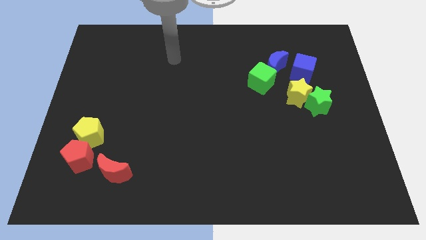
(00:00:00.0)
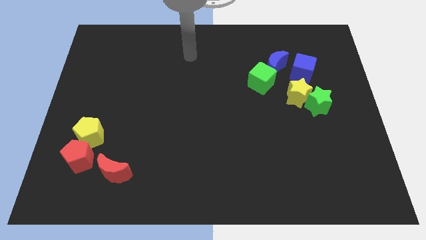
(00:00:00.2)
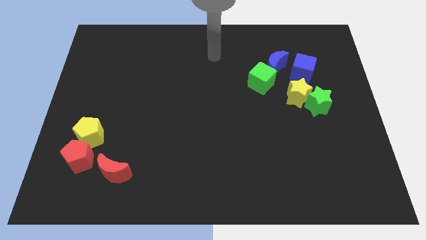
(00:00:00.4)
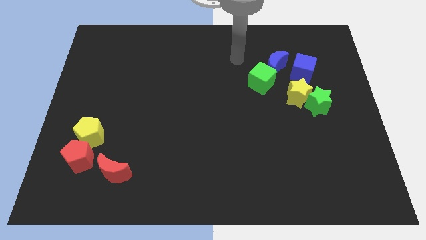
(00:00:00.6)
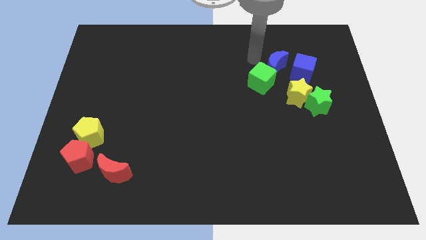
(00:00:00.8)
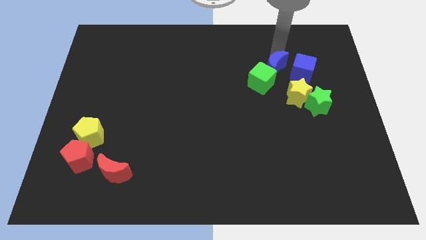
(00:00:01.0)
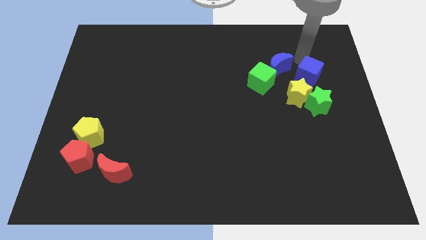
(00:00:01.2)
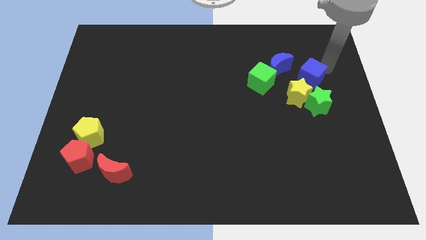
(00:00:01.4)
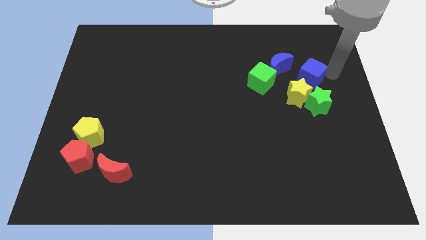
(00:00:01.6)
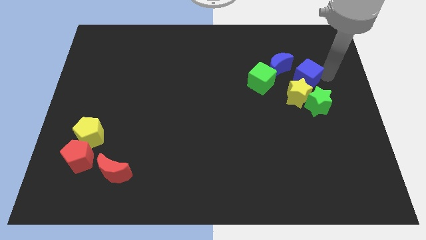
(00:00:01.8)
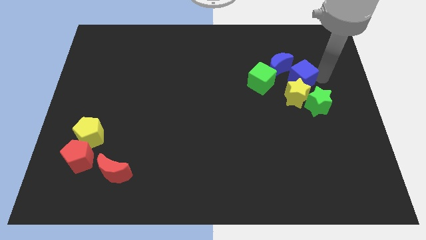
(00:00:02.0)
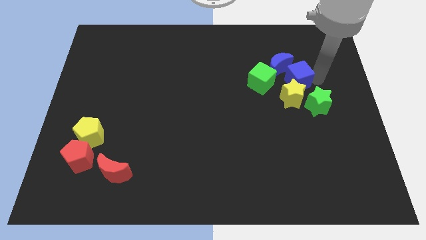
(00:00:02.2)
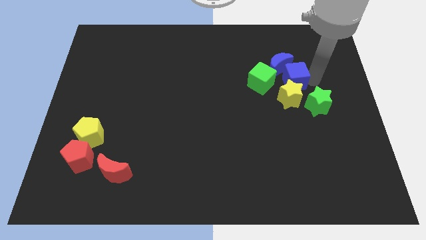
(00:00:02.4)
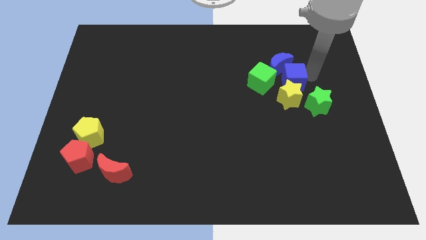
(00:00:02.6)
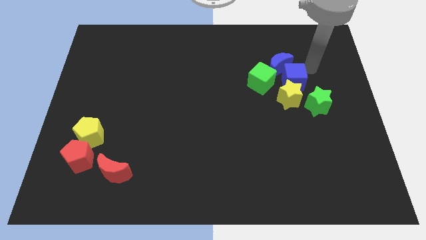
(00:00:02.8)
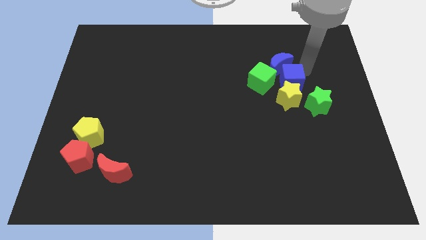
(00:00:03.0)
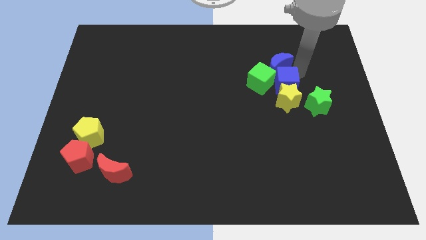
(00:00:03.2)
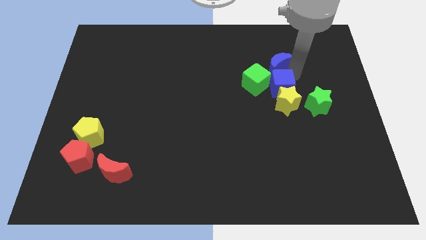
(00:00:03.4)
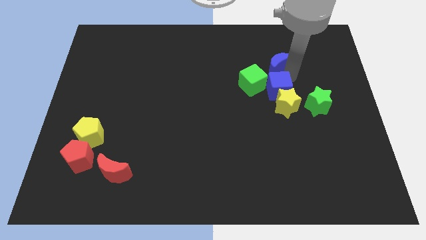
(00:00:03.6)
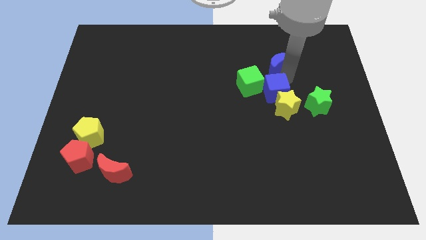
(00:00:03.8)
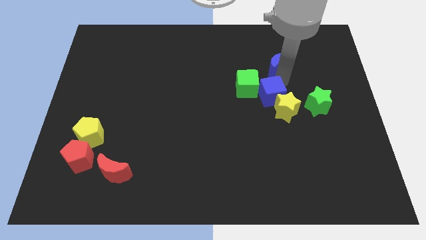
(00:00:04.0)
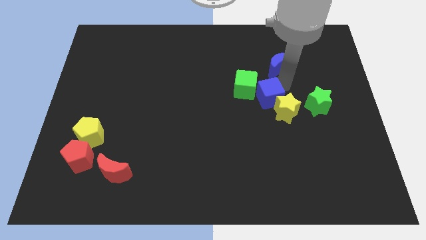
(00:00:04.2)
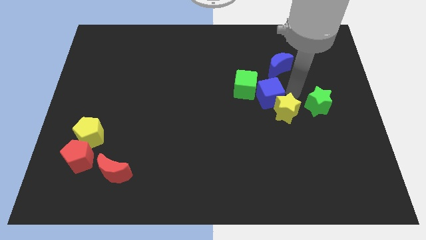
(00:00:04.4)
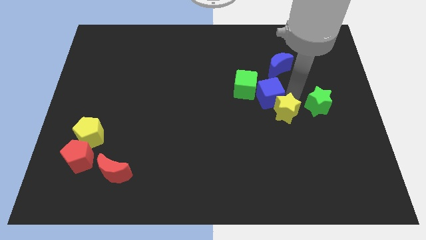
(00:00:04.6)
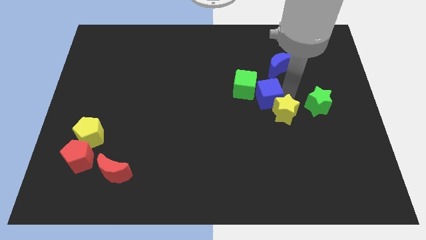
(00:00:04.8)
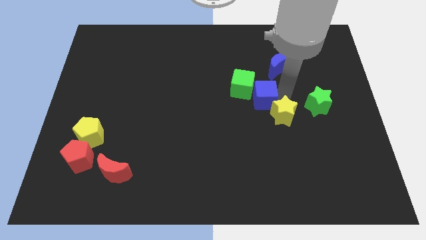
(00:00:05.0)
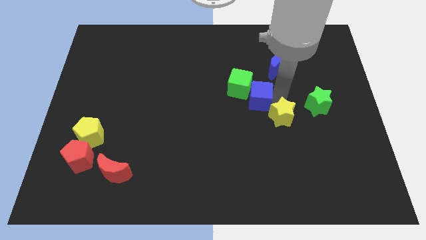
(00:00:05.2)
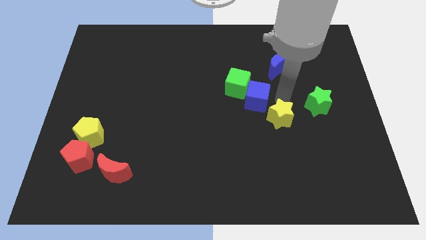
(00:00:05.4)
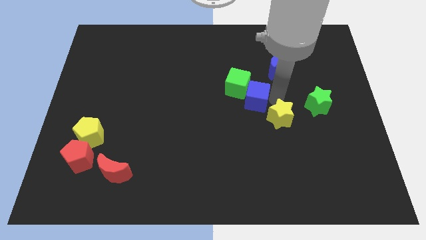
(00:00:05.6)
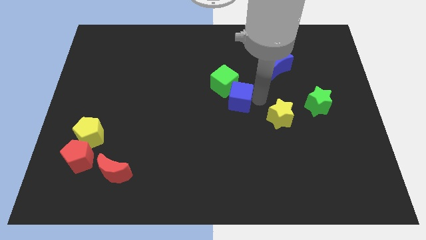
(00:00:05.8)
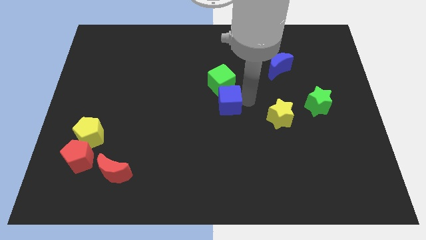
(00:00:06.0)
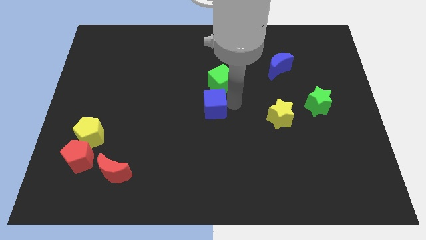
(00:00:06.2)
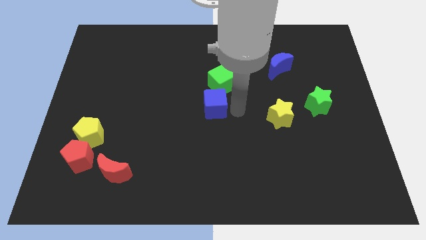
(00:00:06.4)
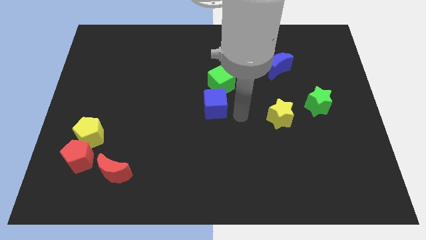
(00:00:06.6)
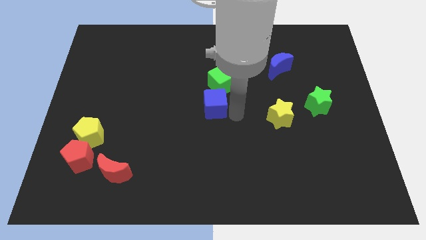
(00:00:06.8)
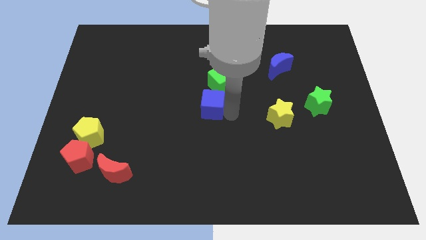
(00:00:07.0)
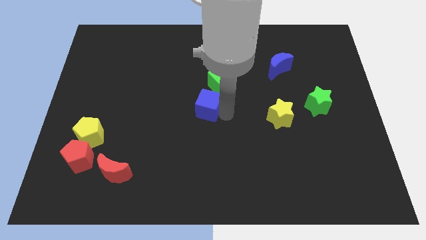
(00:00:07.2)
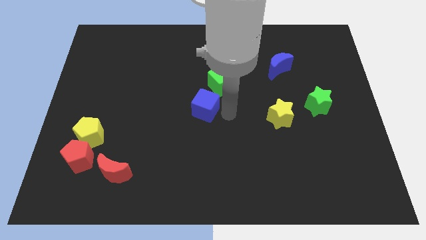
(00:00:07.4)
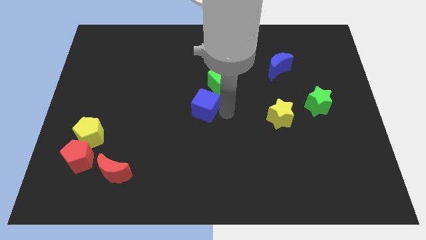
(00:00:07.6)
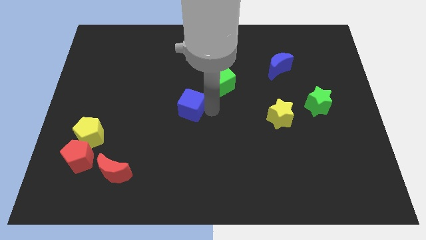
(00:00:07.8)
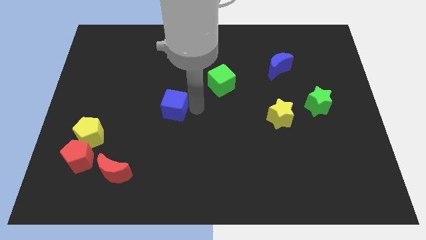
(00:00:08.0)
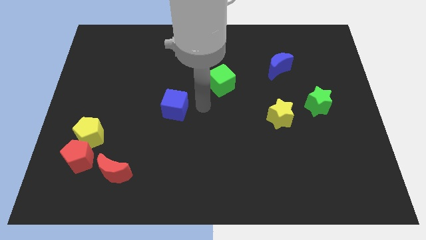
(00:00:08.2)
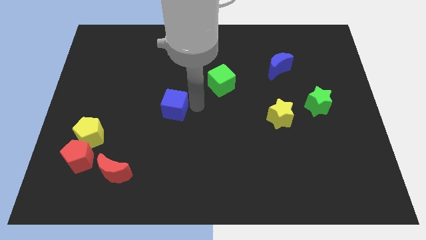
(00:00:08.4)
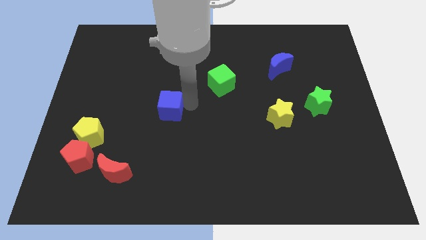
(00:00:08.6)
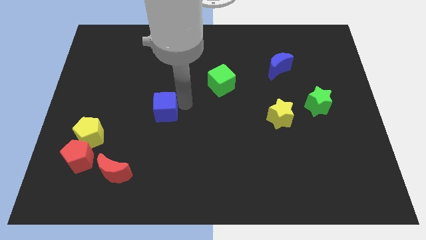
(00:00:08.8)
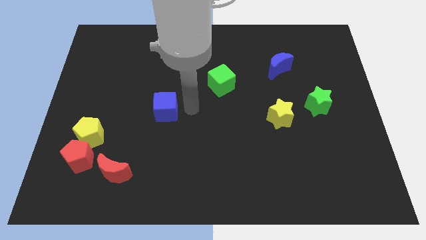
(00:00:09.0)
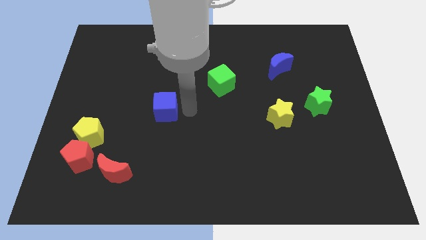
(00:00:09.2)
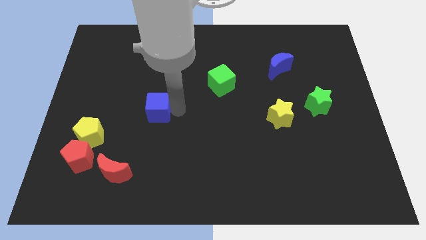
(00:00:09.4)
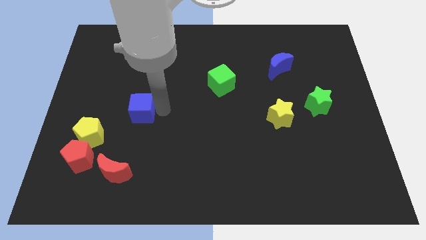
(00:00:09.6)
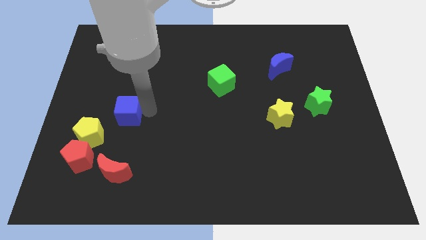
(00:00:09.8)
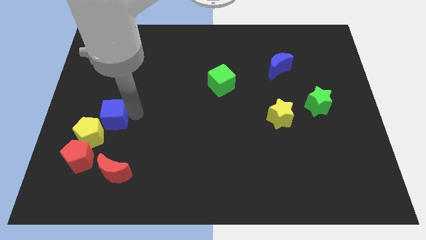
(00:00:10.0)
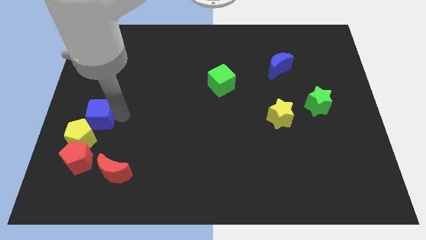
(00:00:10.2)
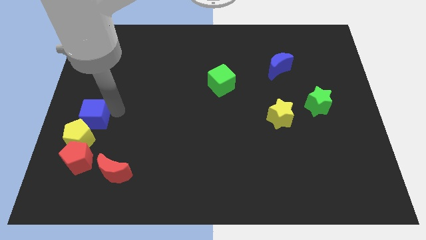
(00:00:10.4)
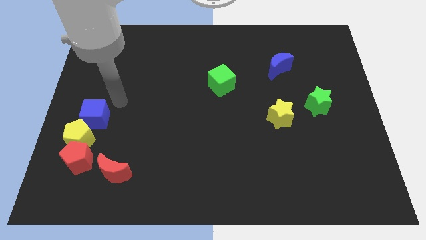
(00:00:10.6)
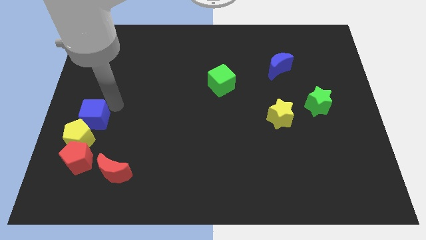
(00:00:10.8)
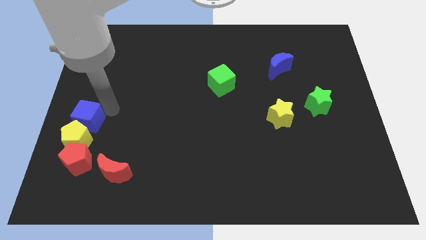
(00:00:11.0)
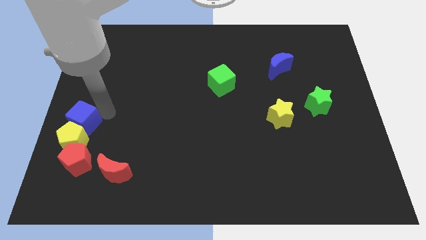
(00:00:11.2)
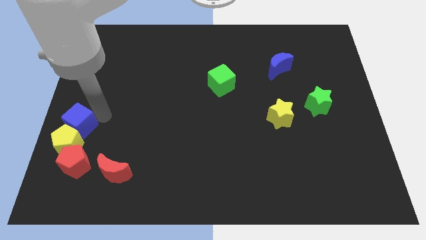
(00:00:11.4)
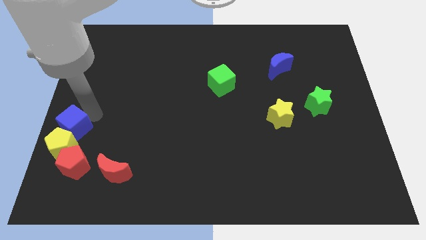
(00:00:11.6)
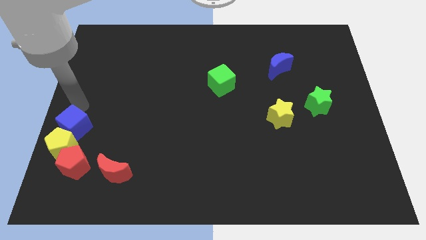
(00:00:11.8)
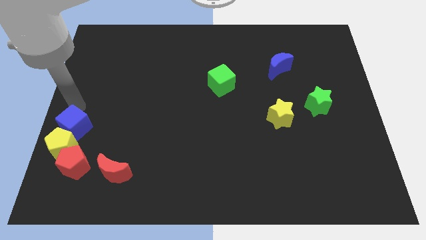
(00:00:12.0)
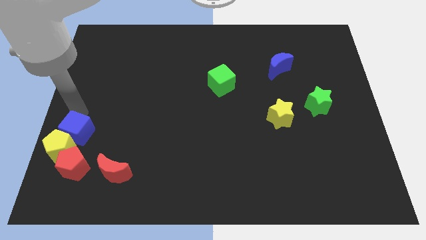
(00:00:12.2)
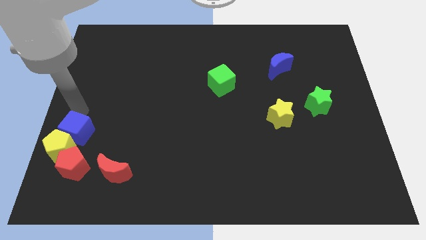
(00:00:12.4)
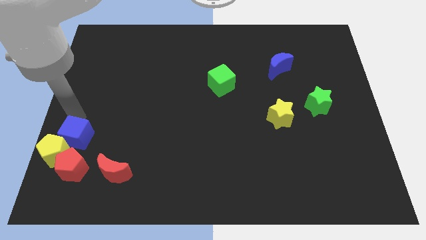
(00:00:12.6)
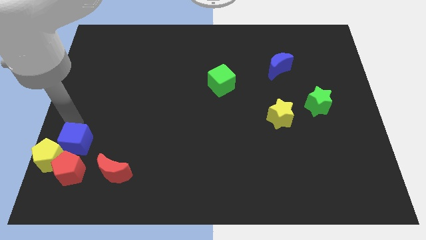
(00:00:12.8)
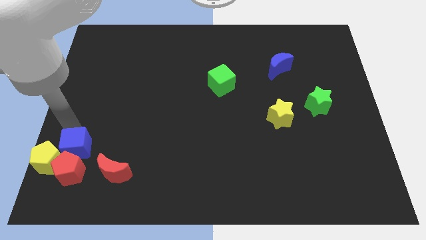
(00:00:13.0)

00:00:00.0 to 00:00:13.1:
push the blue cube towards the red pentagon

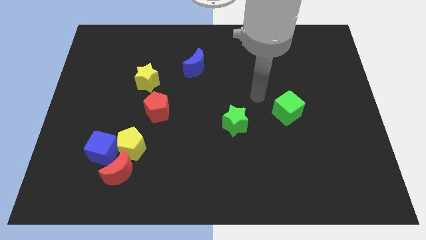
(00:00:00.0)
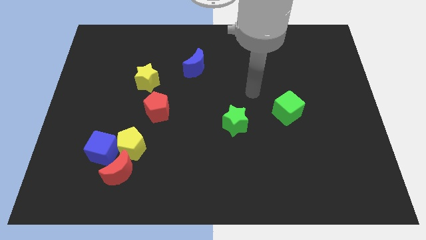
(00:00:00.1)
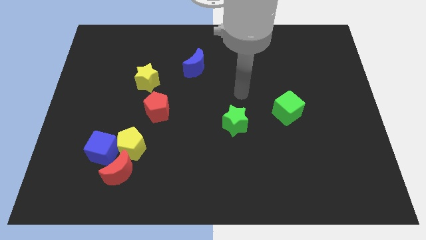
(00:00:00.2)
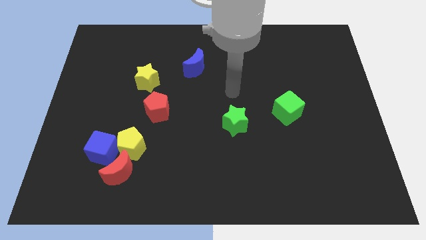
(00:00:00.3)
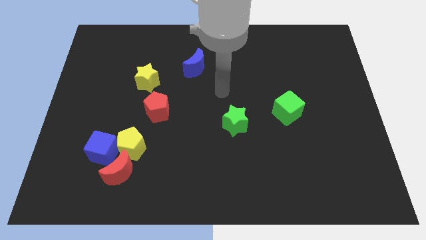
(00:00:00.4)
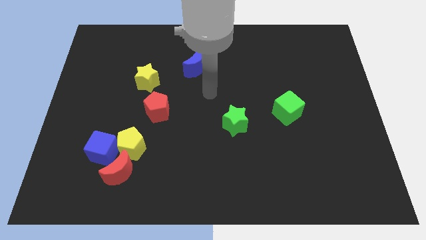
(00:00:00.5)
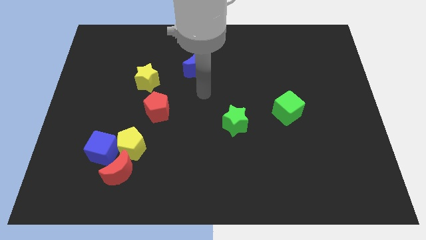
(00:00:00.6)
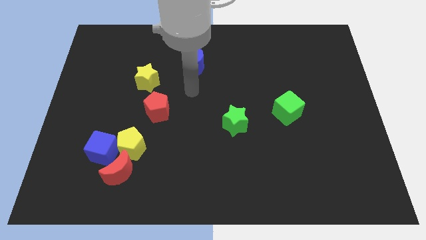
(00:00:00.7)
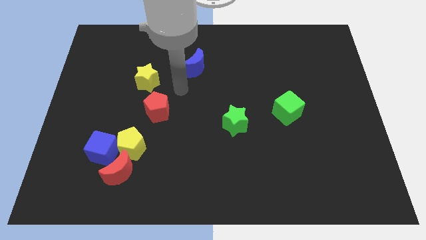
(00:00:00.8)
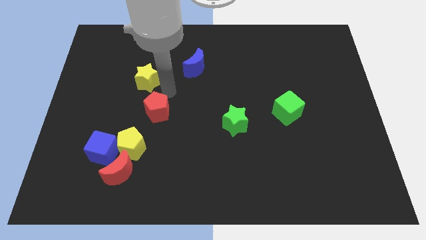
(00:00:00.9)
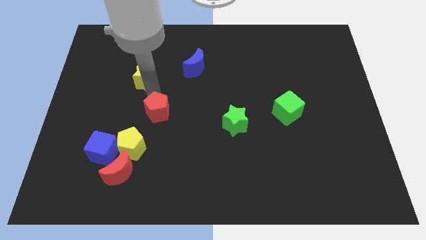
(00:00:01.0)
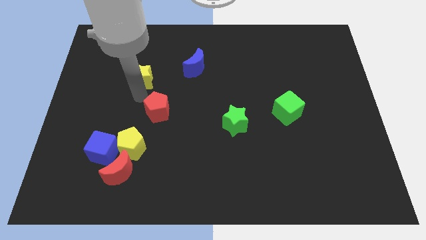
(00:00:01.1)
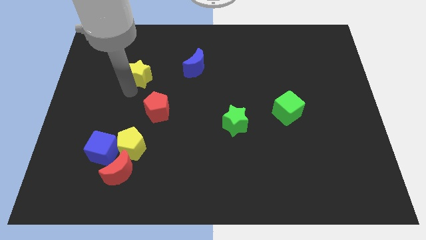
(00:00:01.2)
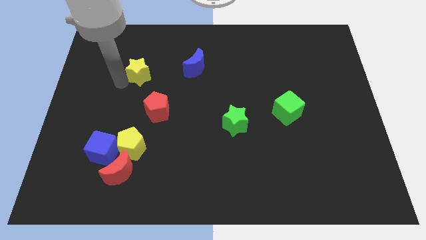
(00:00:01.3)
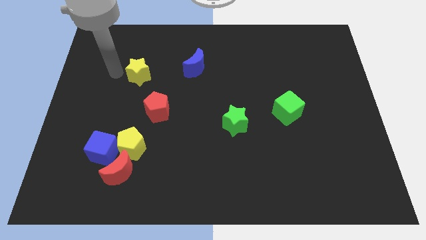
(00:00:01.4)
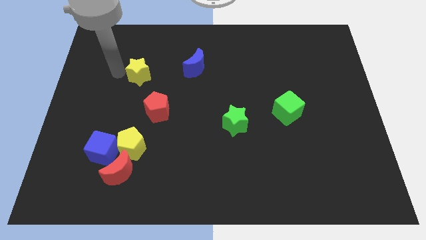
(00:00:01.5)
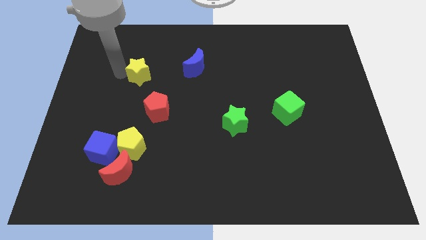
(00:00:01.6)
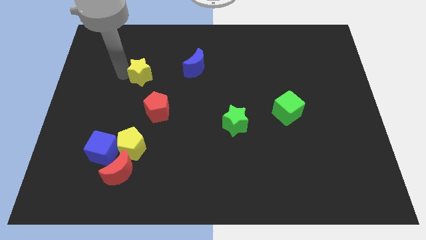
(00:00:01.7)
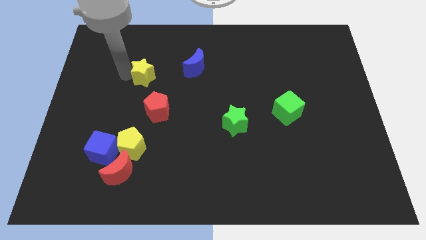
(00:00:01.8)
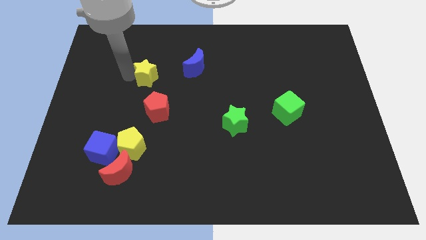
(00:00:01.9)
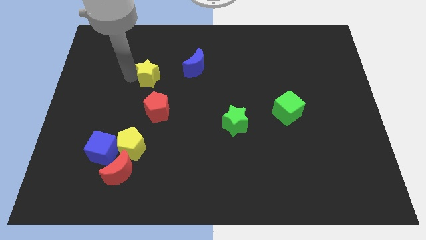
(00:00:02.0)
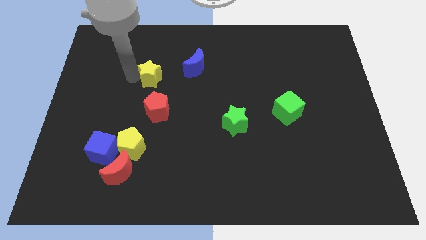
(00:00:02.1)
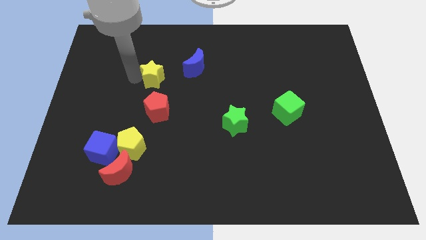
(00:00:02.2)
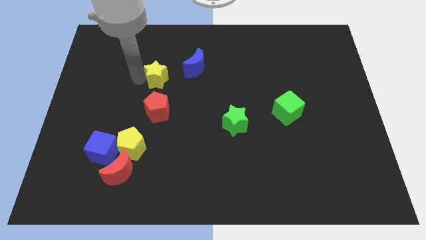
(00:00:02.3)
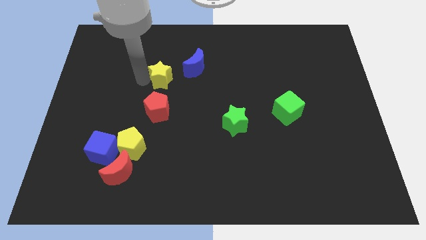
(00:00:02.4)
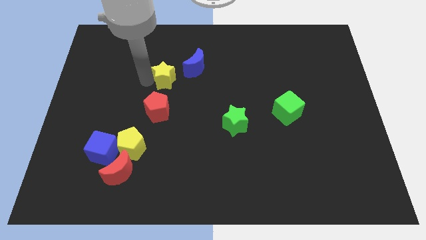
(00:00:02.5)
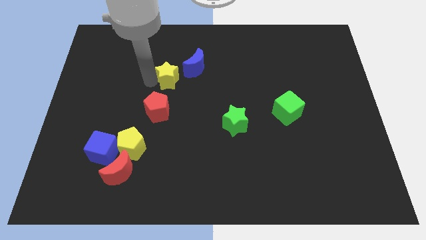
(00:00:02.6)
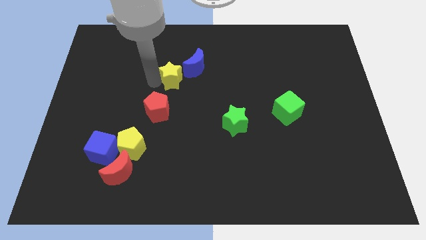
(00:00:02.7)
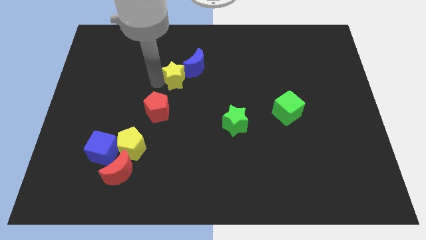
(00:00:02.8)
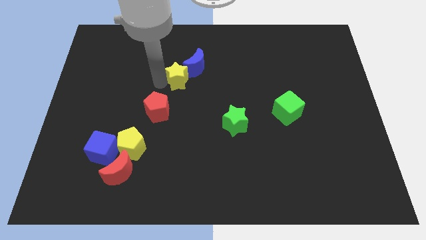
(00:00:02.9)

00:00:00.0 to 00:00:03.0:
put the yellow star close to the blue moon
